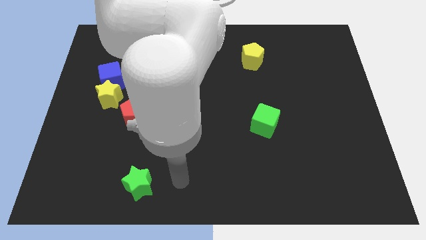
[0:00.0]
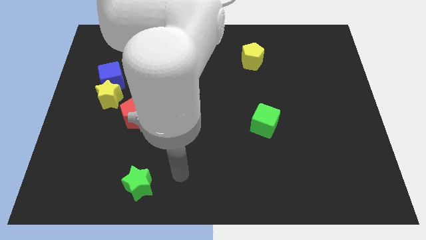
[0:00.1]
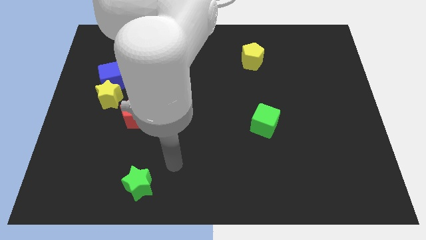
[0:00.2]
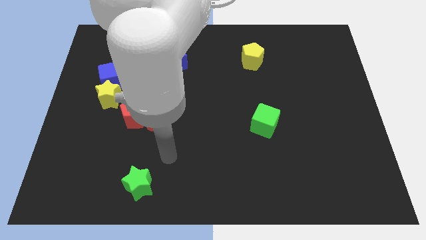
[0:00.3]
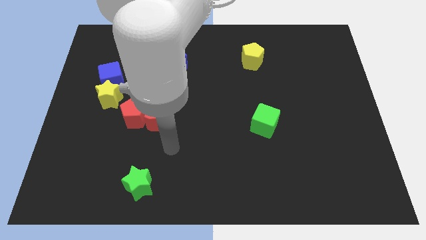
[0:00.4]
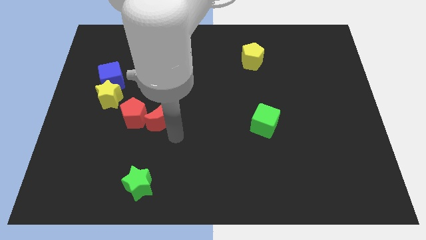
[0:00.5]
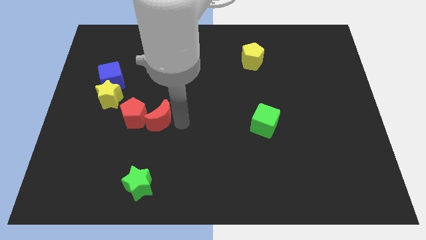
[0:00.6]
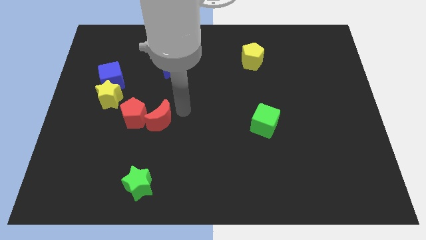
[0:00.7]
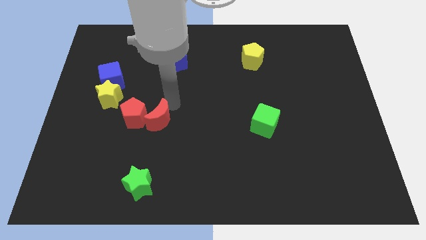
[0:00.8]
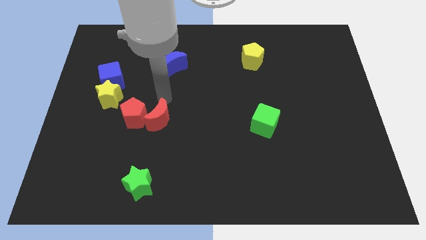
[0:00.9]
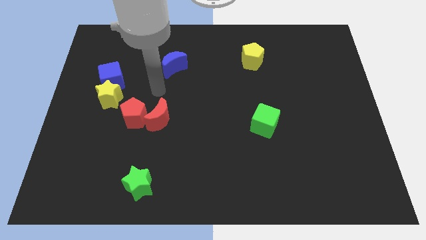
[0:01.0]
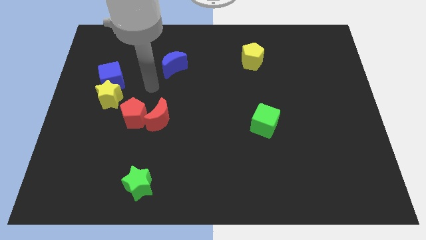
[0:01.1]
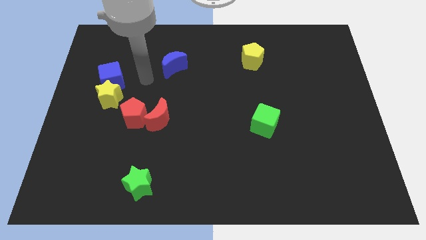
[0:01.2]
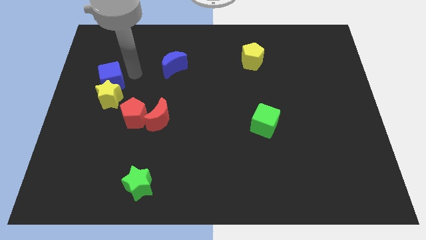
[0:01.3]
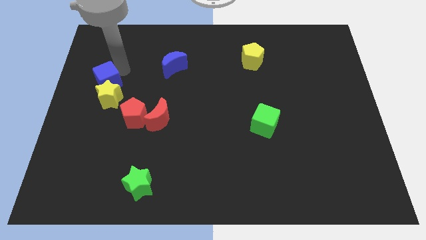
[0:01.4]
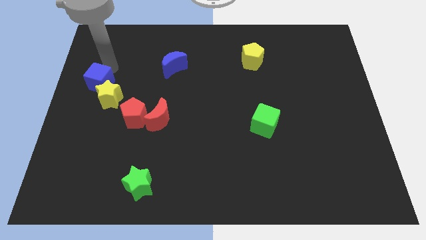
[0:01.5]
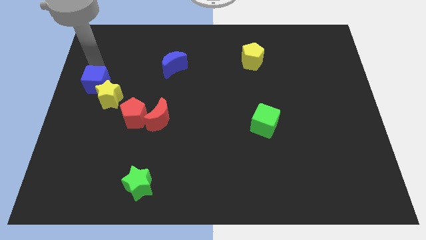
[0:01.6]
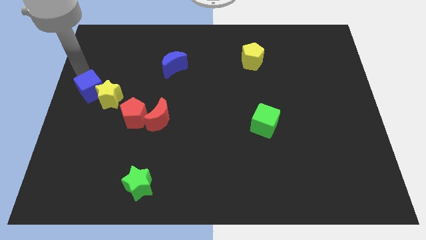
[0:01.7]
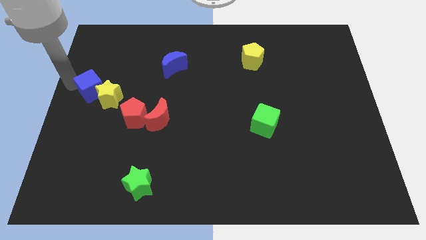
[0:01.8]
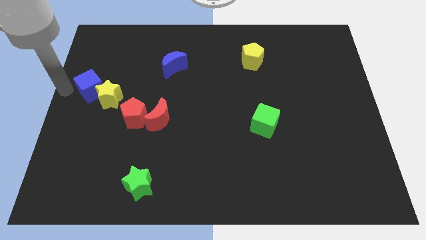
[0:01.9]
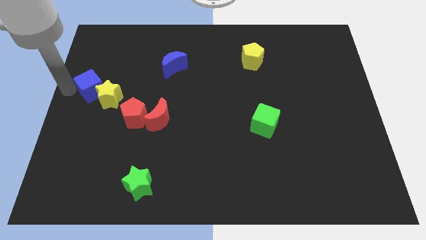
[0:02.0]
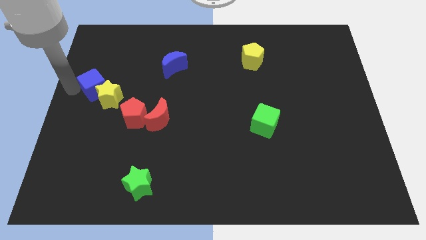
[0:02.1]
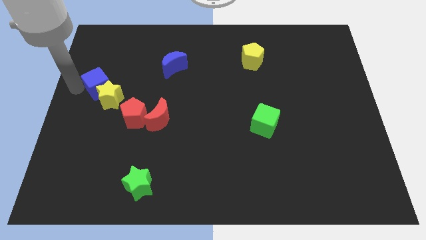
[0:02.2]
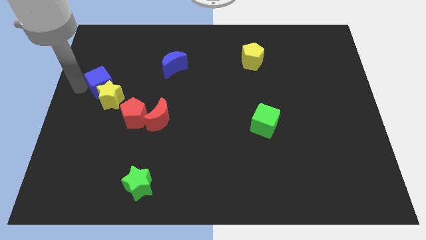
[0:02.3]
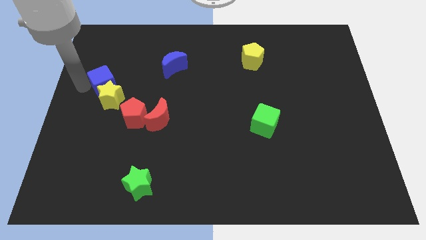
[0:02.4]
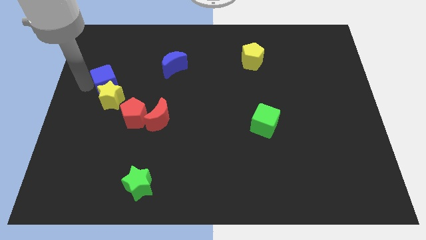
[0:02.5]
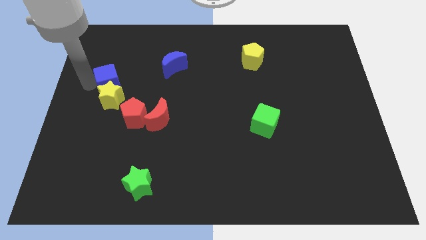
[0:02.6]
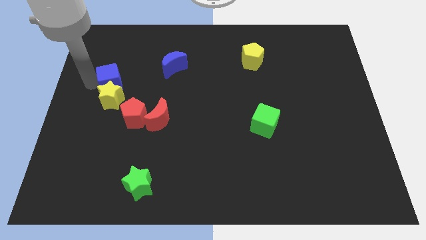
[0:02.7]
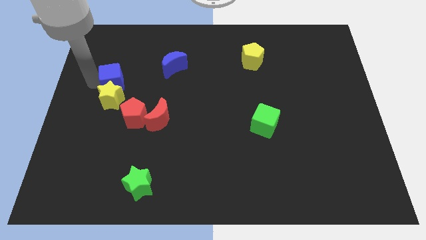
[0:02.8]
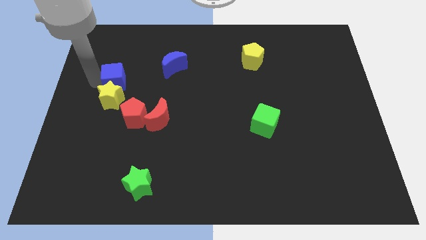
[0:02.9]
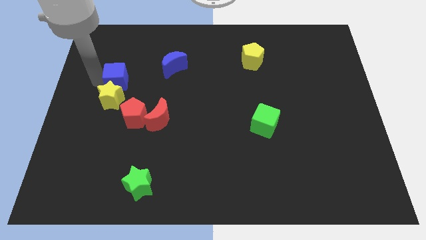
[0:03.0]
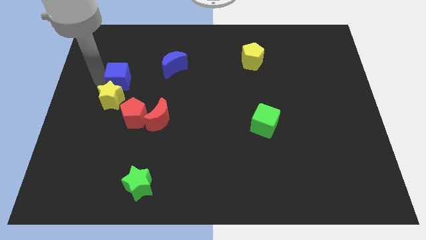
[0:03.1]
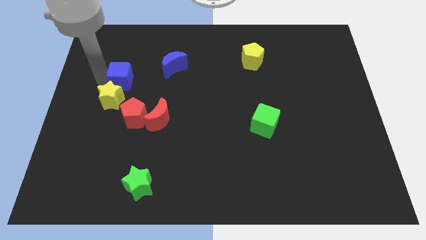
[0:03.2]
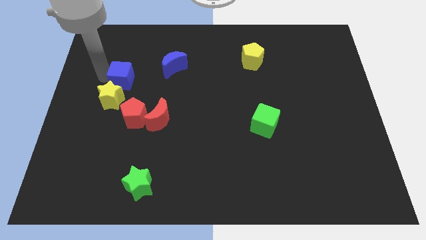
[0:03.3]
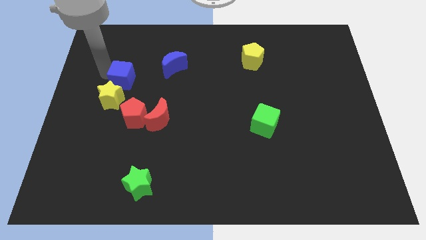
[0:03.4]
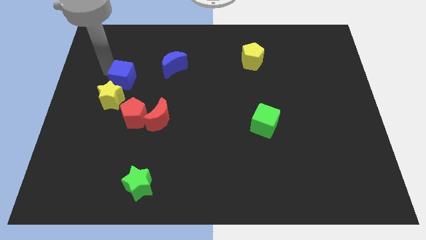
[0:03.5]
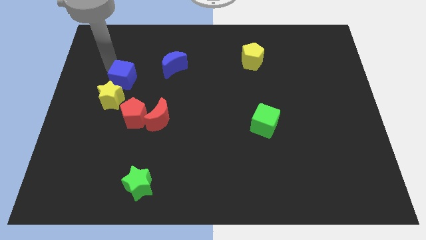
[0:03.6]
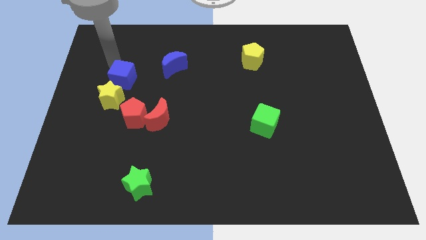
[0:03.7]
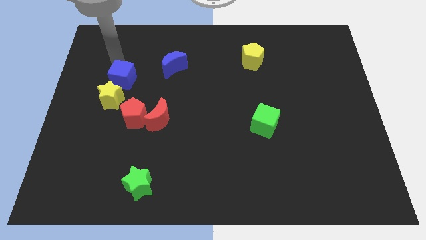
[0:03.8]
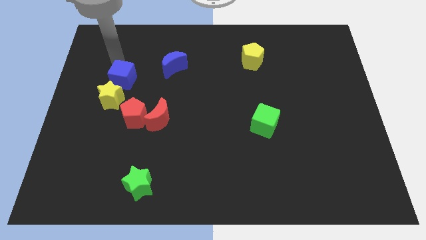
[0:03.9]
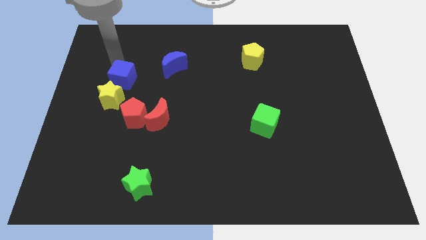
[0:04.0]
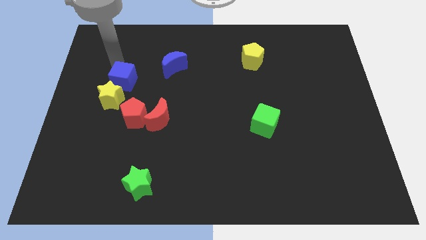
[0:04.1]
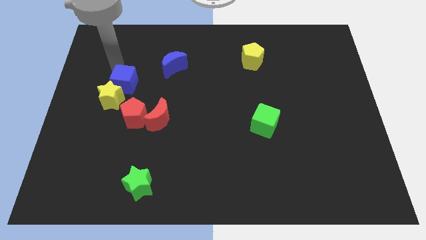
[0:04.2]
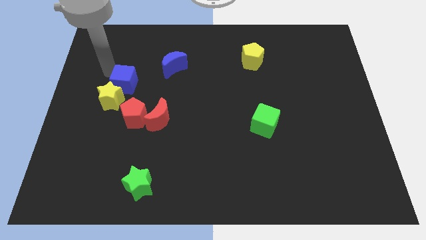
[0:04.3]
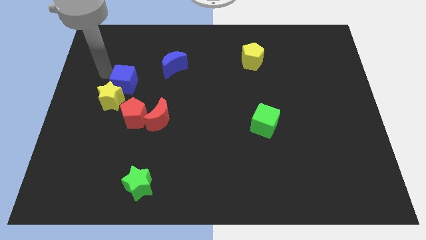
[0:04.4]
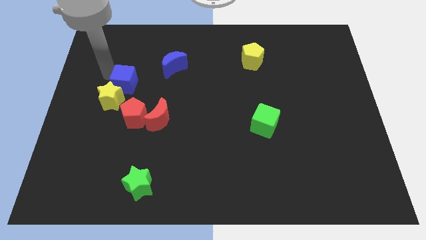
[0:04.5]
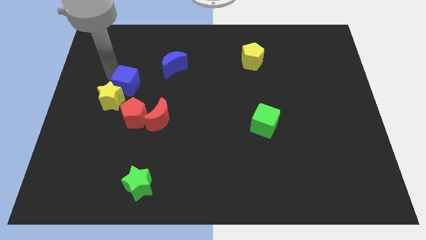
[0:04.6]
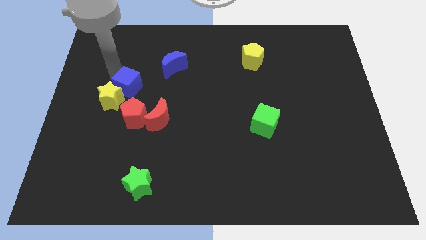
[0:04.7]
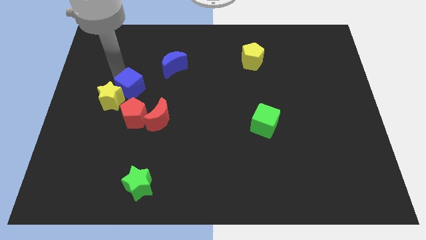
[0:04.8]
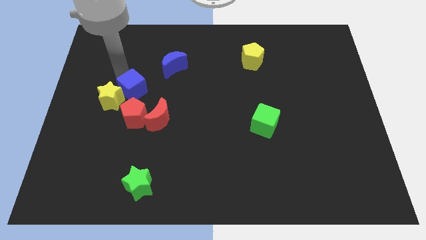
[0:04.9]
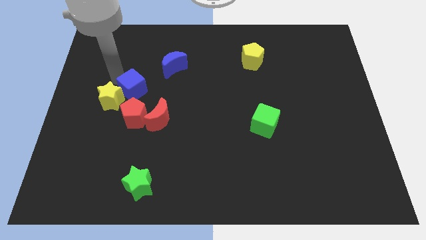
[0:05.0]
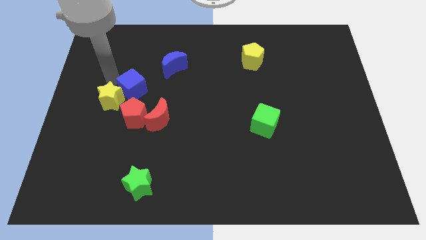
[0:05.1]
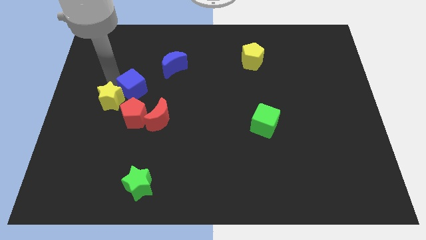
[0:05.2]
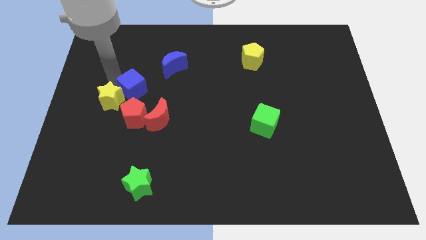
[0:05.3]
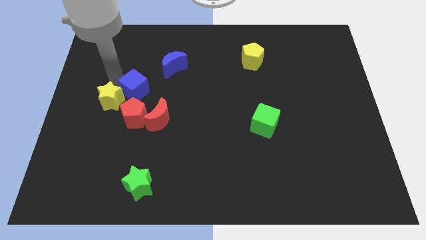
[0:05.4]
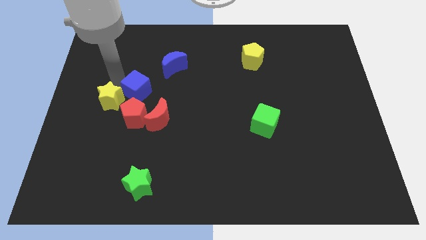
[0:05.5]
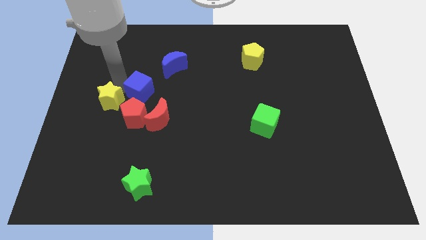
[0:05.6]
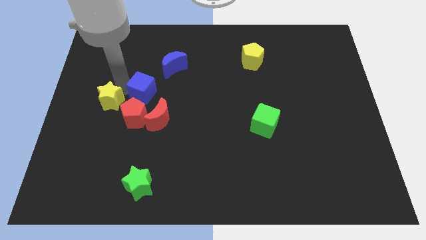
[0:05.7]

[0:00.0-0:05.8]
move the blue cube to the top right of the red pentagon

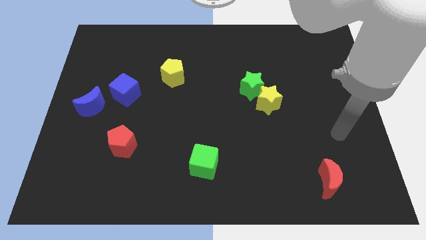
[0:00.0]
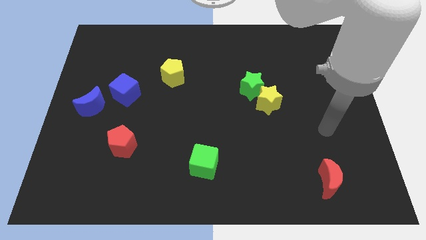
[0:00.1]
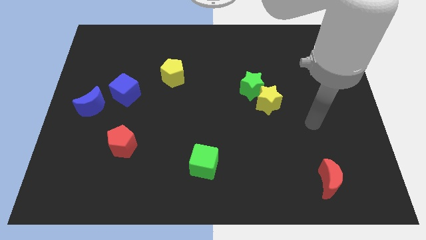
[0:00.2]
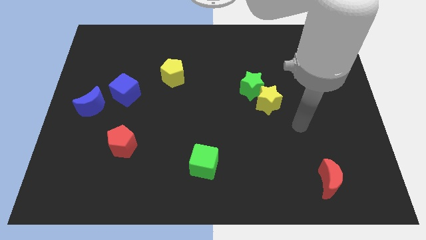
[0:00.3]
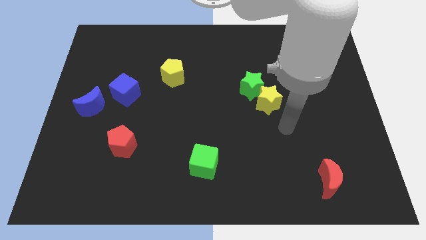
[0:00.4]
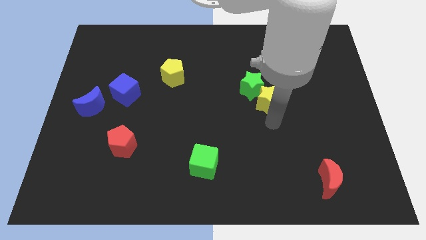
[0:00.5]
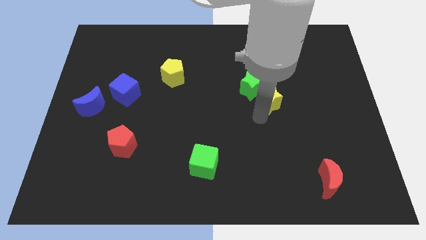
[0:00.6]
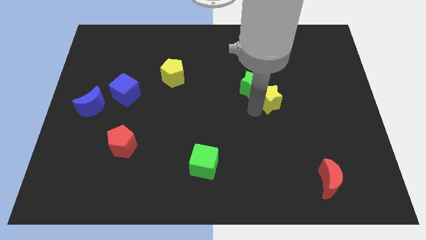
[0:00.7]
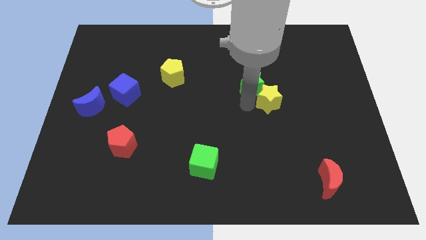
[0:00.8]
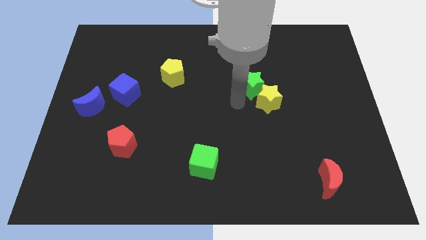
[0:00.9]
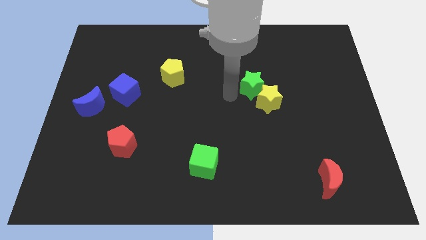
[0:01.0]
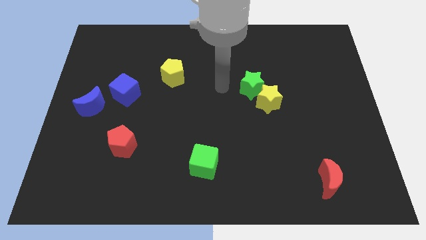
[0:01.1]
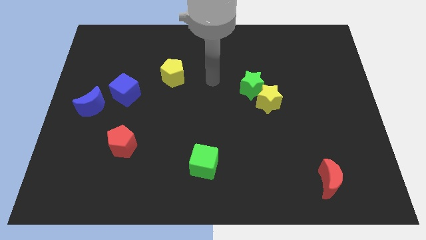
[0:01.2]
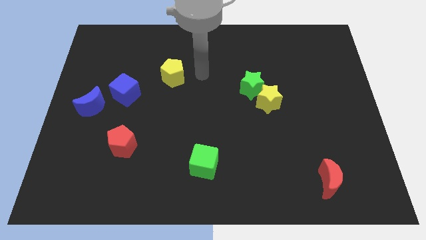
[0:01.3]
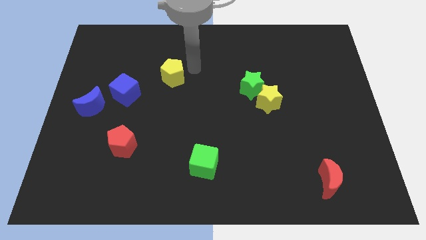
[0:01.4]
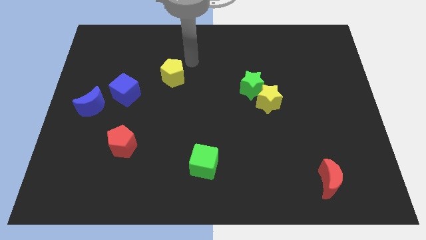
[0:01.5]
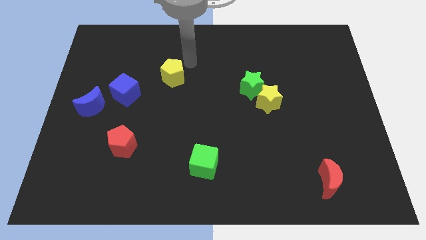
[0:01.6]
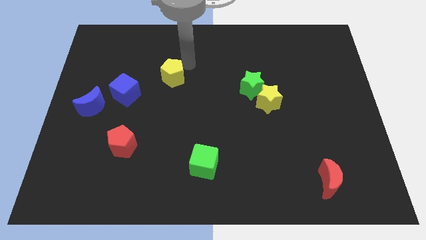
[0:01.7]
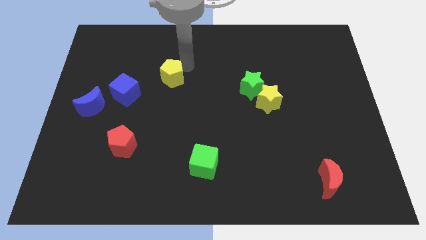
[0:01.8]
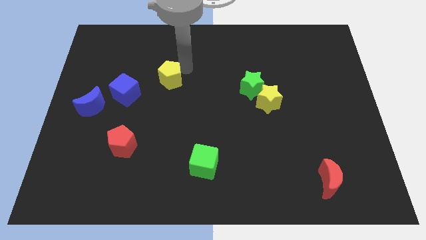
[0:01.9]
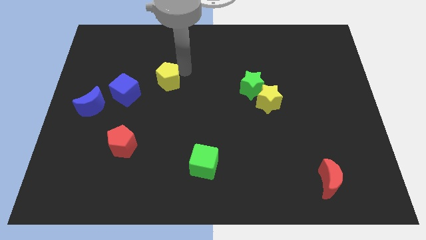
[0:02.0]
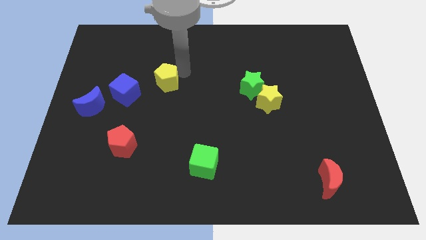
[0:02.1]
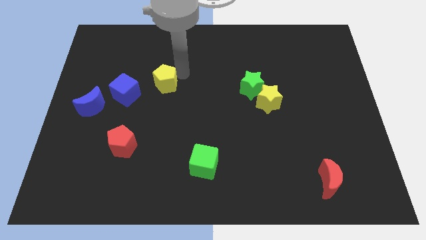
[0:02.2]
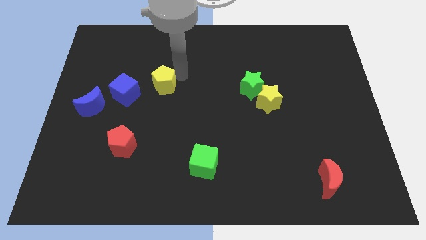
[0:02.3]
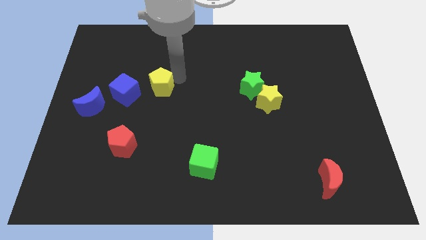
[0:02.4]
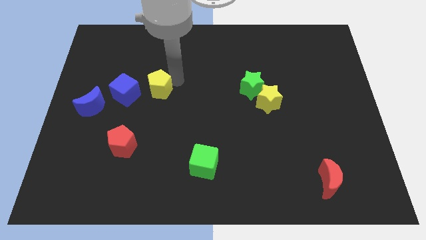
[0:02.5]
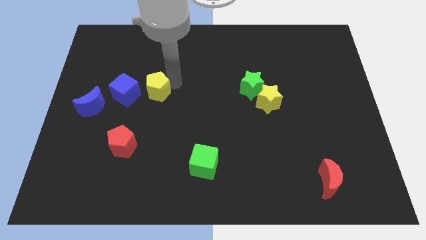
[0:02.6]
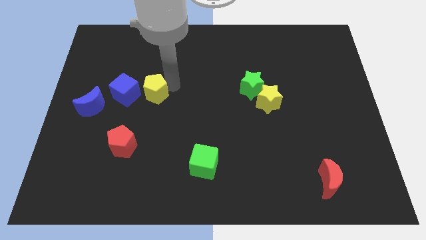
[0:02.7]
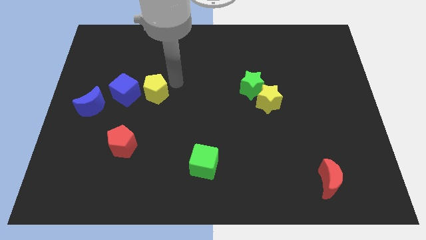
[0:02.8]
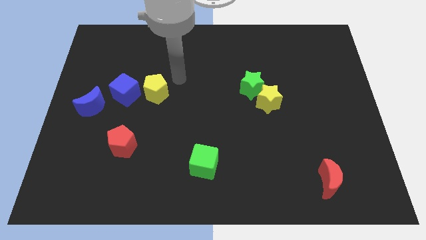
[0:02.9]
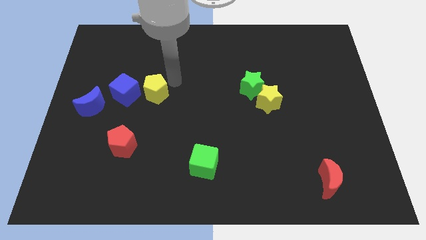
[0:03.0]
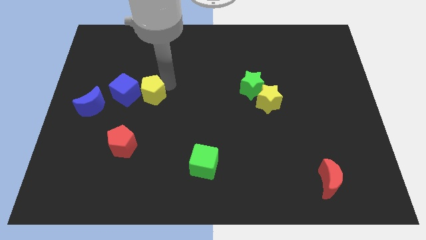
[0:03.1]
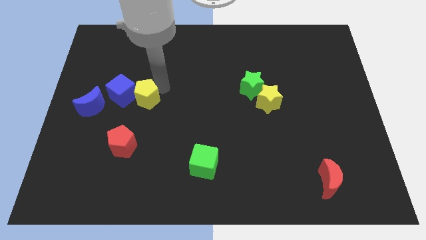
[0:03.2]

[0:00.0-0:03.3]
put the yellow pentagon above the red pentagon
